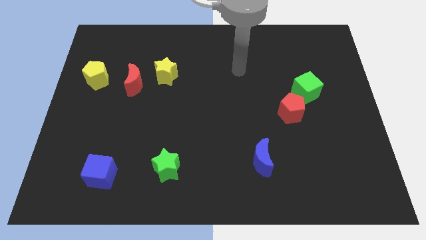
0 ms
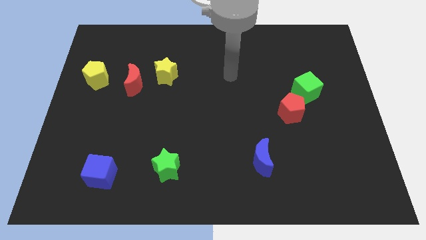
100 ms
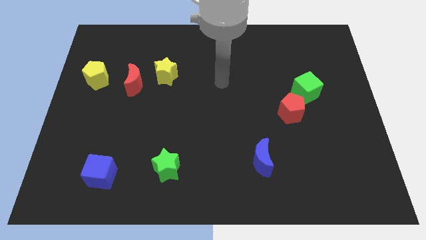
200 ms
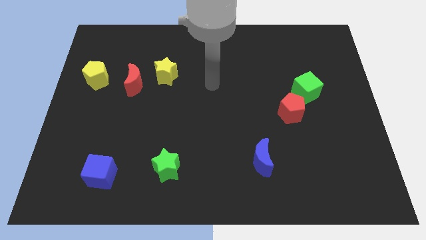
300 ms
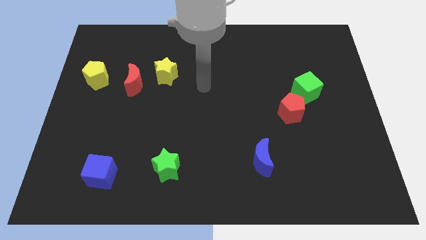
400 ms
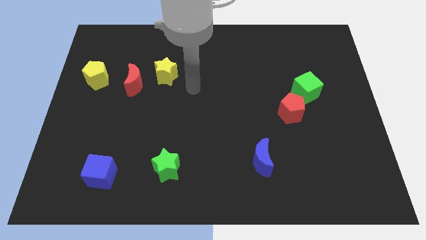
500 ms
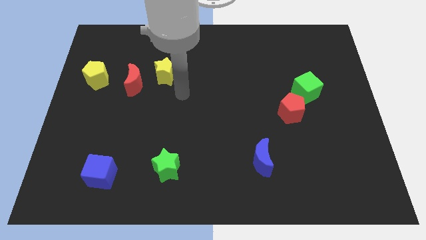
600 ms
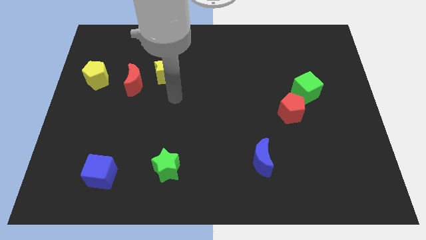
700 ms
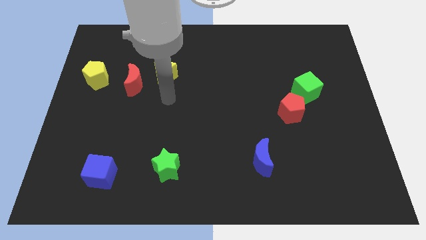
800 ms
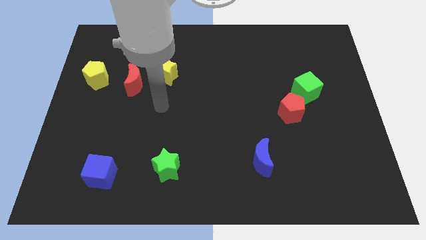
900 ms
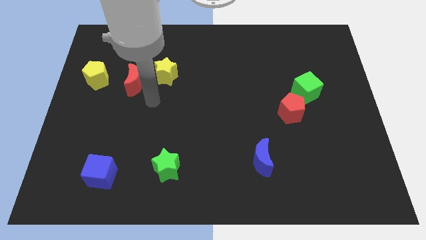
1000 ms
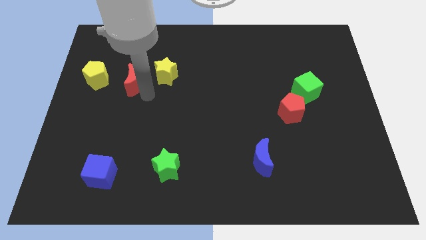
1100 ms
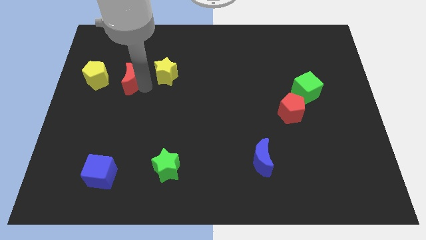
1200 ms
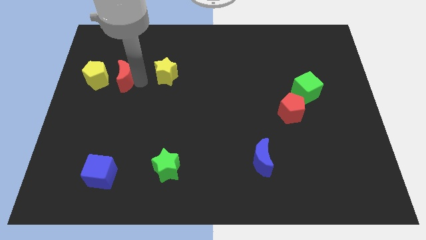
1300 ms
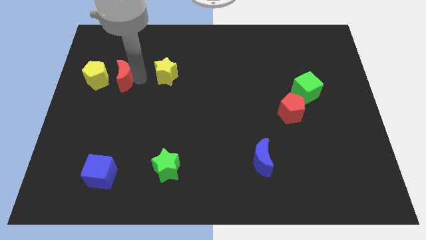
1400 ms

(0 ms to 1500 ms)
separate the yellow star from the red moon

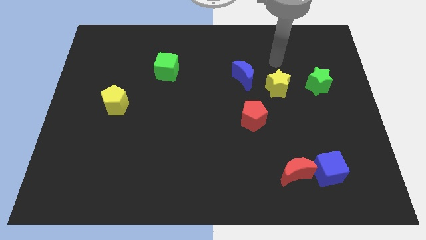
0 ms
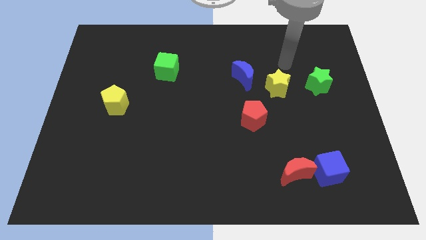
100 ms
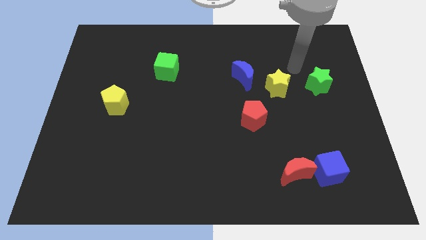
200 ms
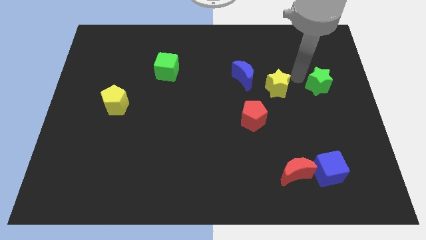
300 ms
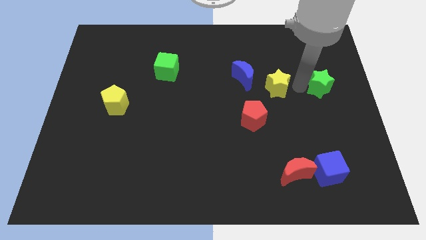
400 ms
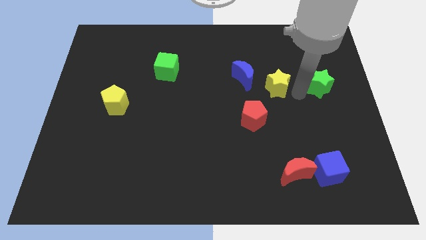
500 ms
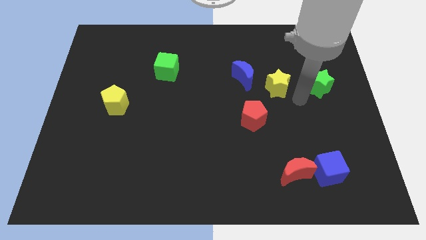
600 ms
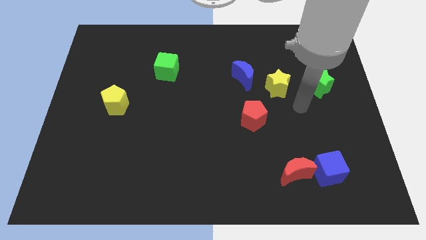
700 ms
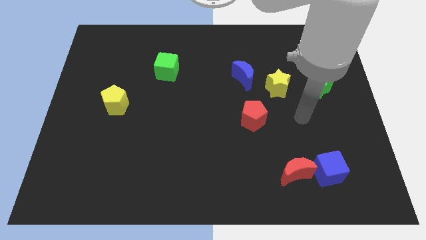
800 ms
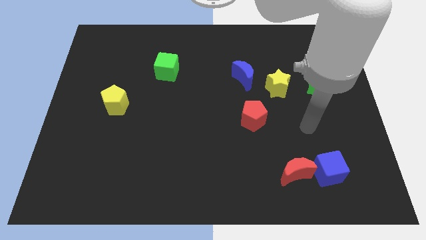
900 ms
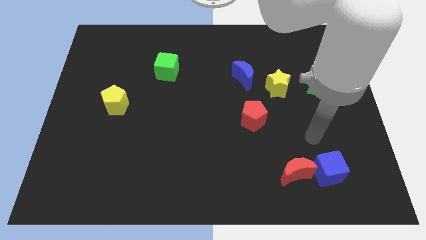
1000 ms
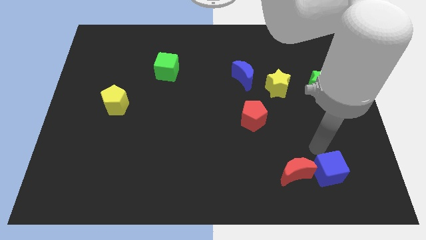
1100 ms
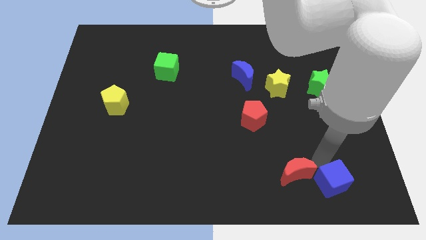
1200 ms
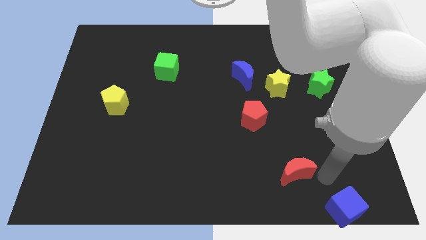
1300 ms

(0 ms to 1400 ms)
pull the red moon apart from the blue cube

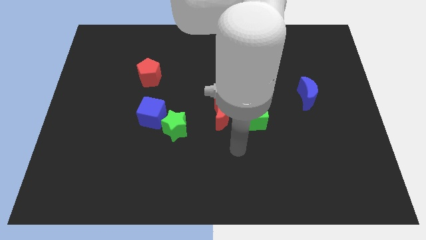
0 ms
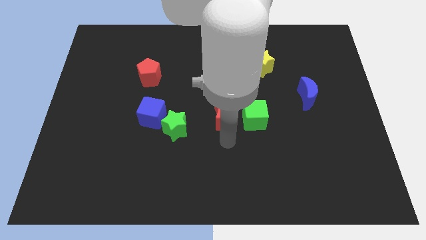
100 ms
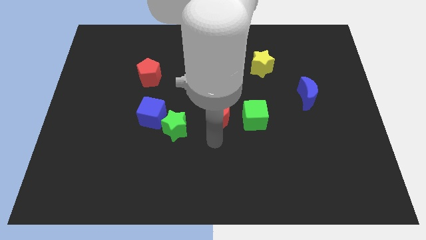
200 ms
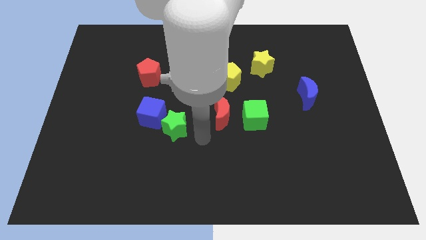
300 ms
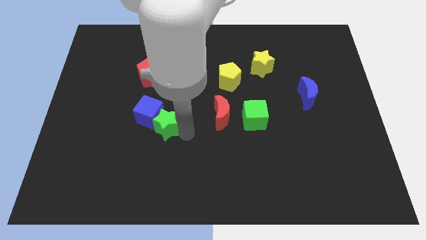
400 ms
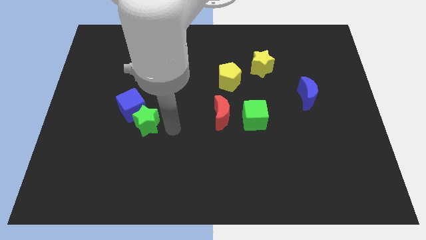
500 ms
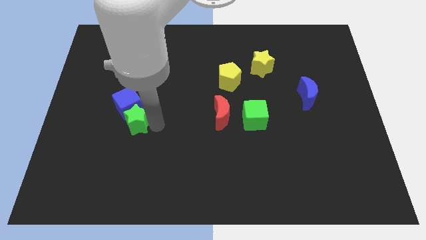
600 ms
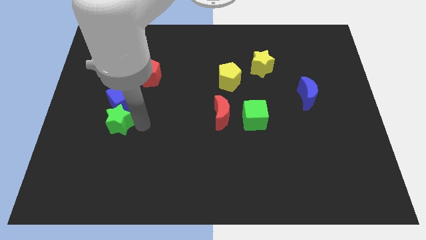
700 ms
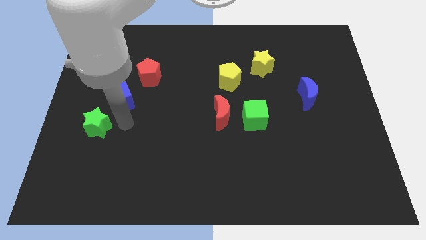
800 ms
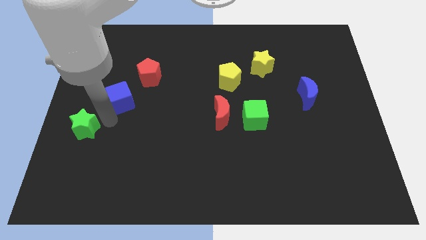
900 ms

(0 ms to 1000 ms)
separate the blue cube from the green star

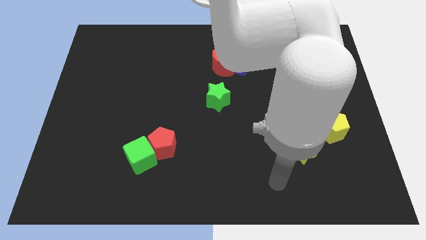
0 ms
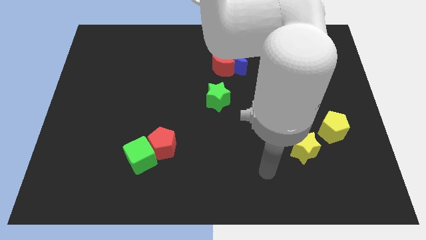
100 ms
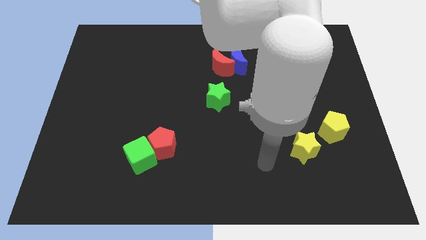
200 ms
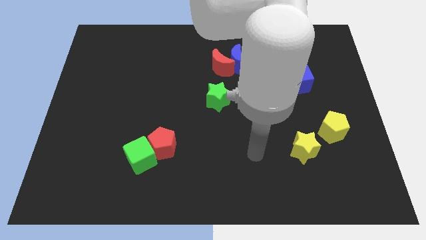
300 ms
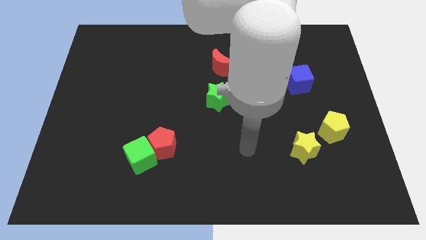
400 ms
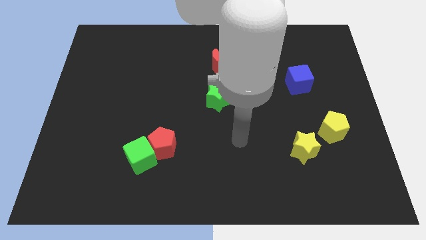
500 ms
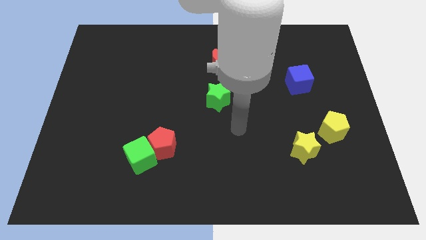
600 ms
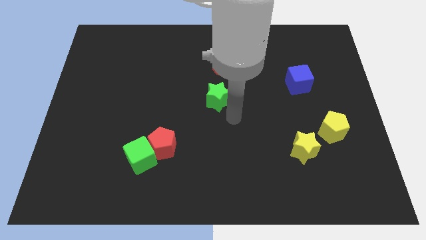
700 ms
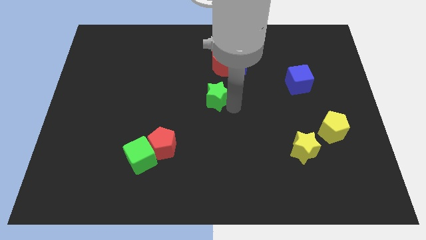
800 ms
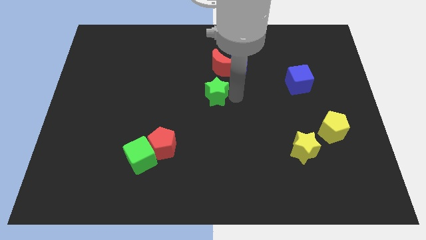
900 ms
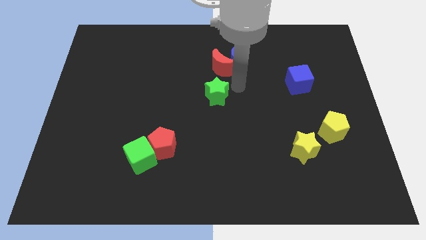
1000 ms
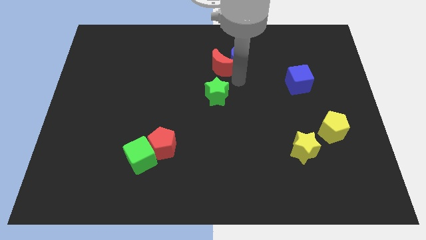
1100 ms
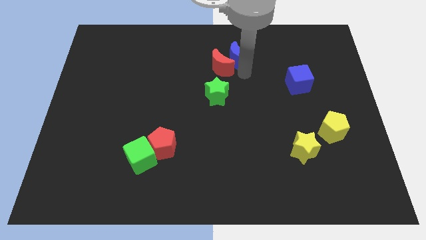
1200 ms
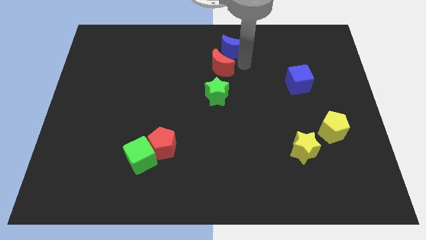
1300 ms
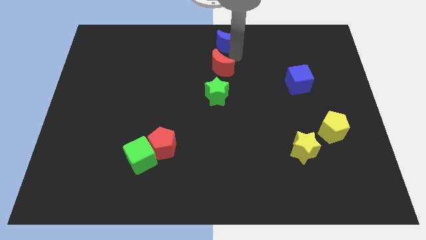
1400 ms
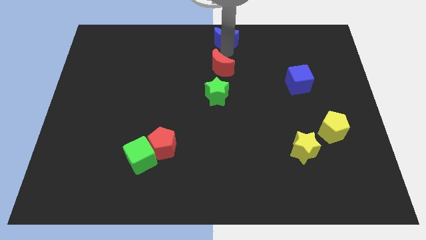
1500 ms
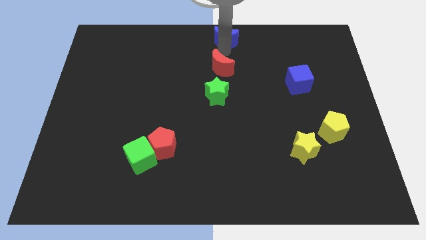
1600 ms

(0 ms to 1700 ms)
pull the red moon apart from the blue moon

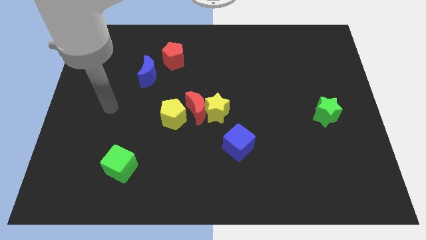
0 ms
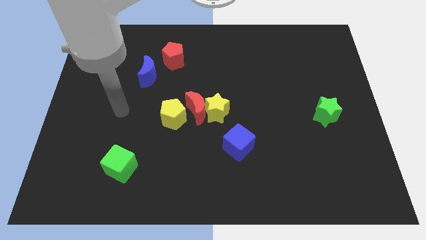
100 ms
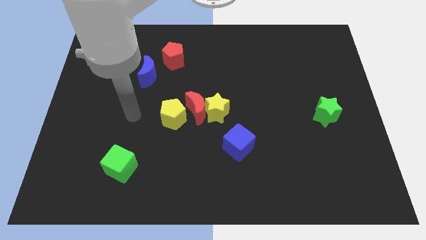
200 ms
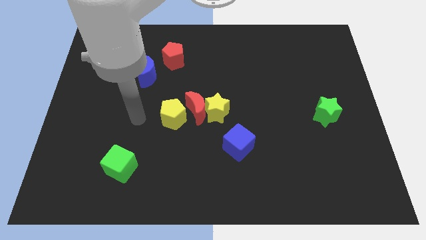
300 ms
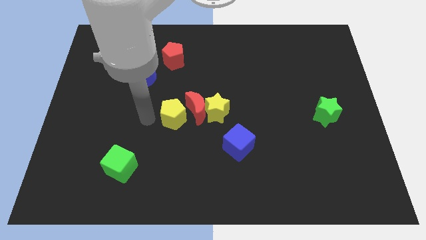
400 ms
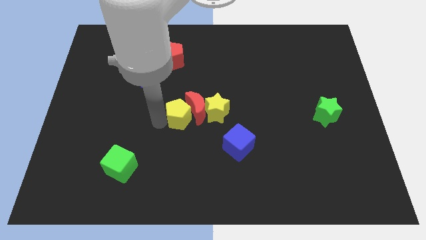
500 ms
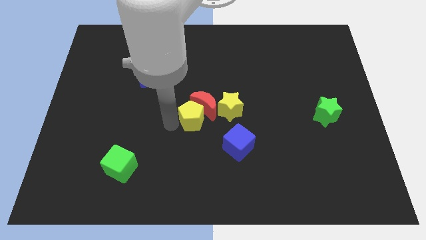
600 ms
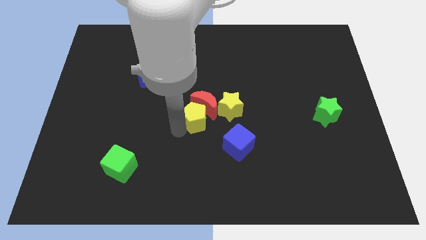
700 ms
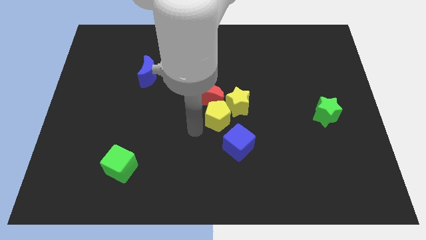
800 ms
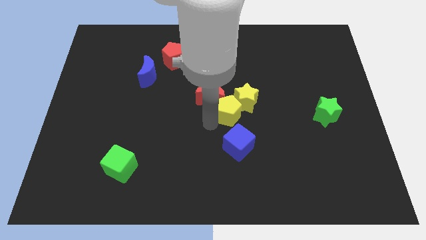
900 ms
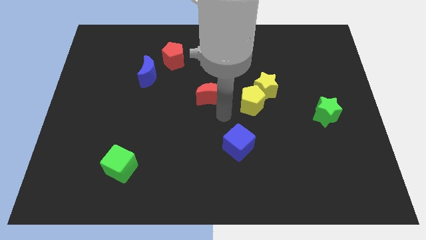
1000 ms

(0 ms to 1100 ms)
move the red moon away from the yellow star and yellow pentagon

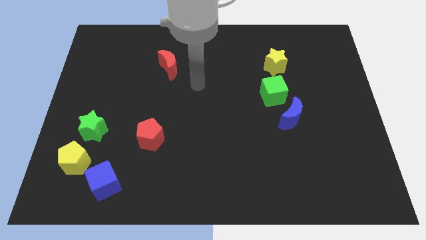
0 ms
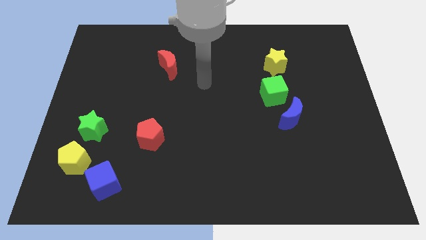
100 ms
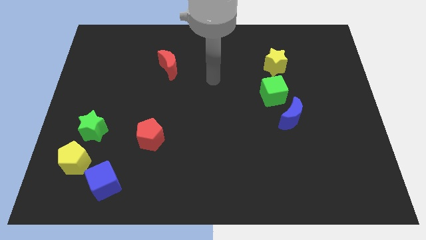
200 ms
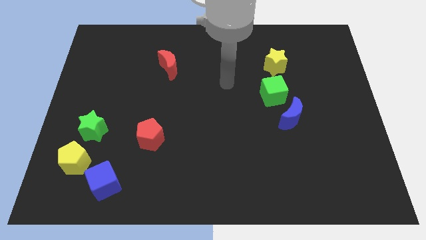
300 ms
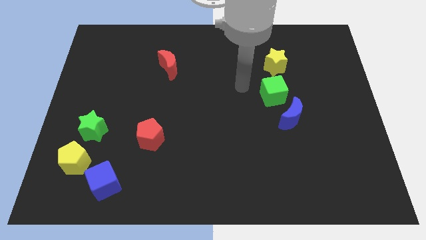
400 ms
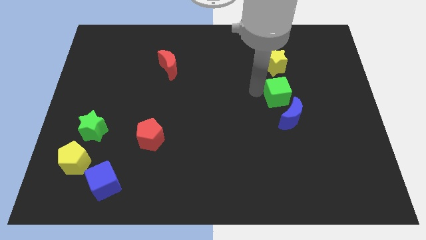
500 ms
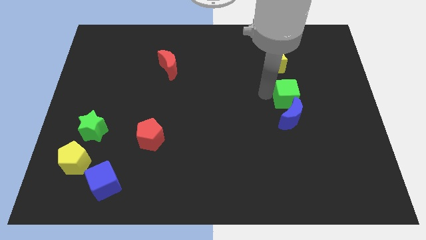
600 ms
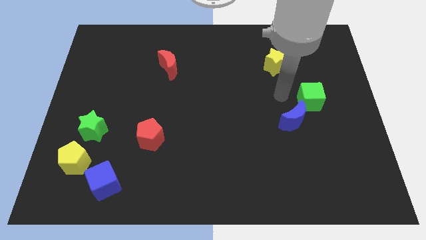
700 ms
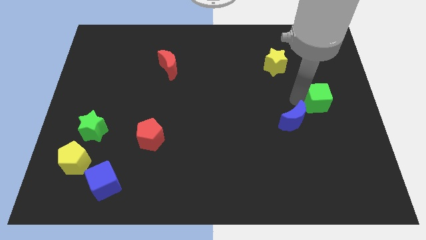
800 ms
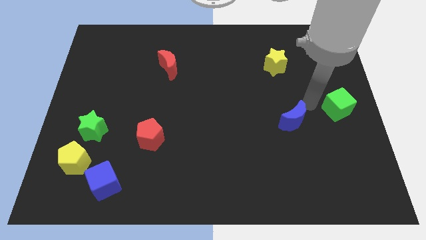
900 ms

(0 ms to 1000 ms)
move the blue moon away from the green cube

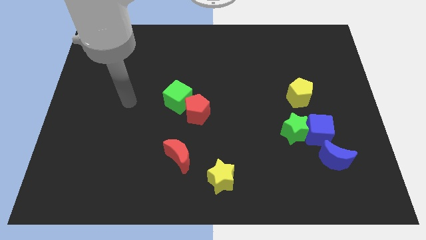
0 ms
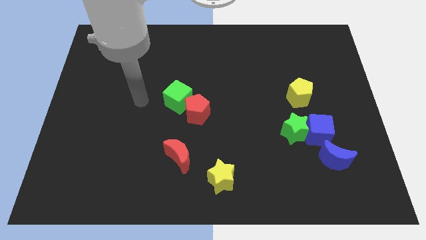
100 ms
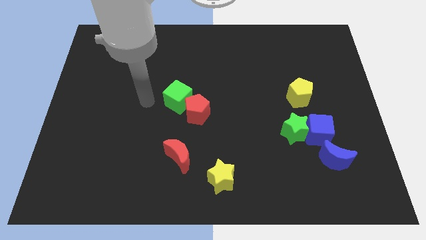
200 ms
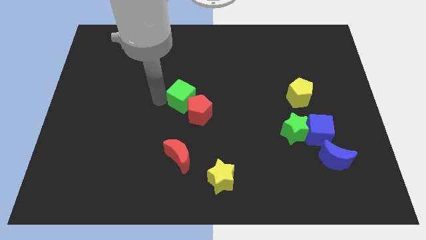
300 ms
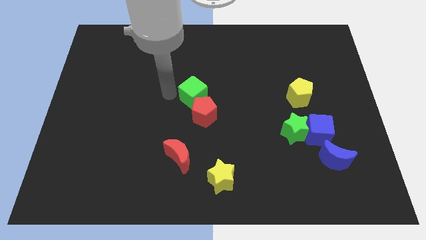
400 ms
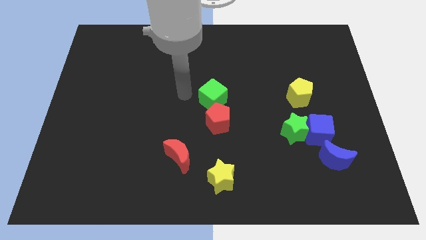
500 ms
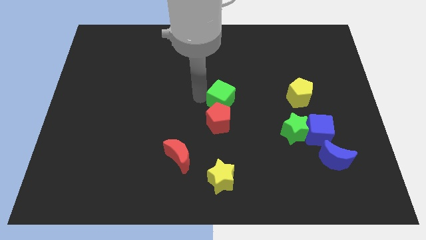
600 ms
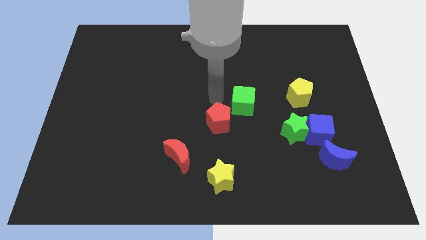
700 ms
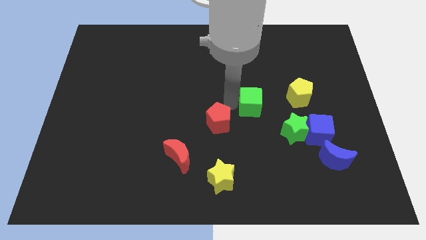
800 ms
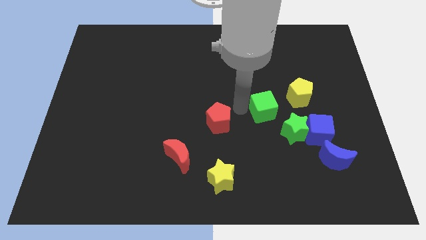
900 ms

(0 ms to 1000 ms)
separate the red pentagon from the green cube

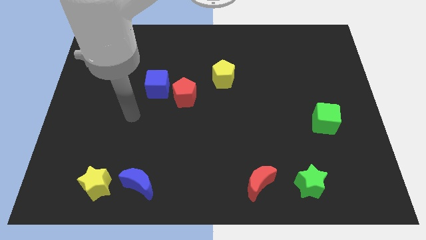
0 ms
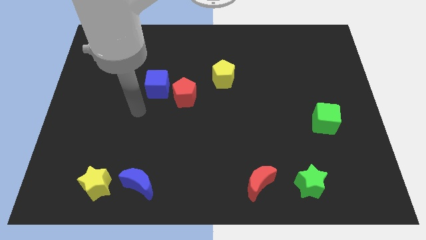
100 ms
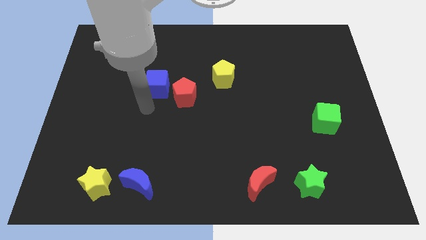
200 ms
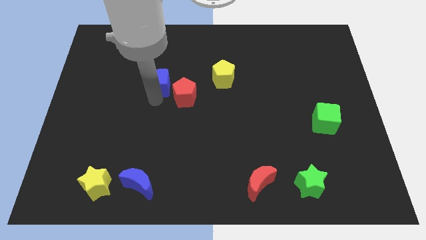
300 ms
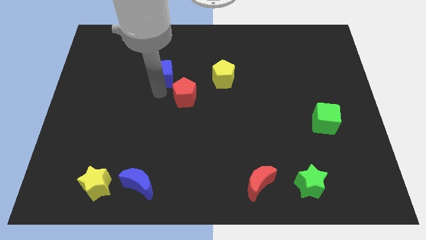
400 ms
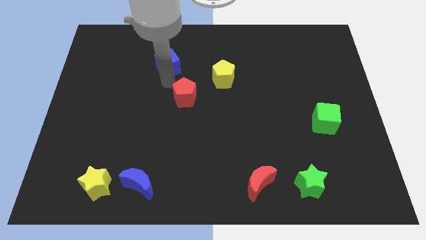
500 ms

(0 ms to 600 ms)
pull the red pentagon apart from the blue cube
